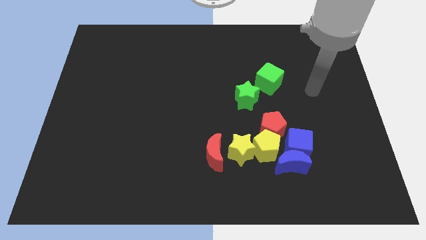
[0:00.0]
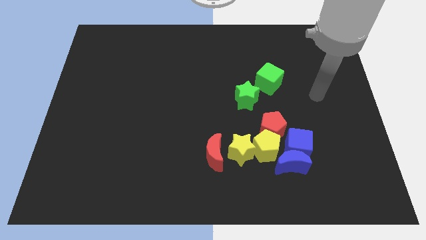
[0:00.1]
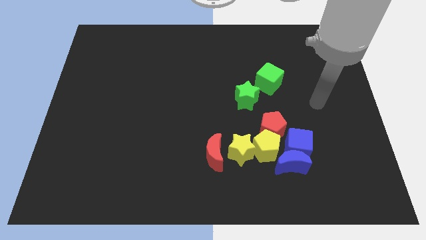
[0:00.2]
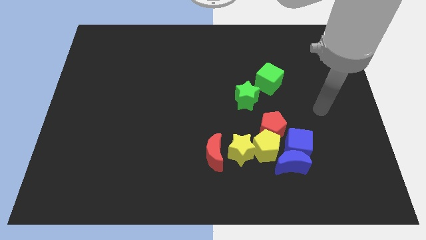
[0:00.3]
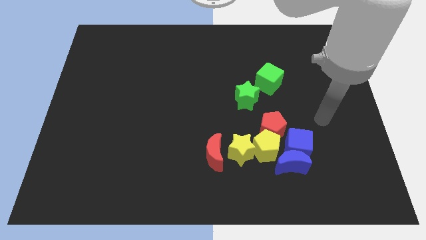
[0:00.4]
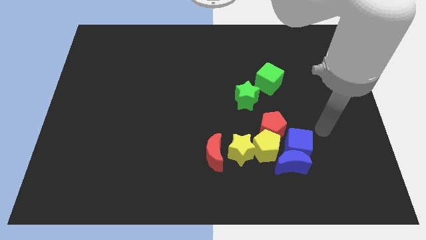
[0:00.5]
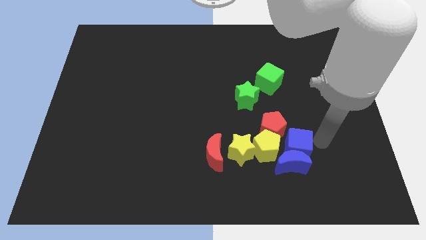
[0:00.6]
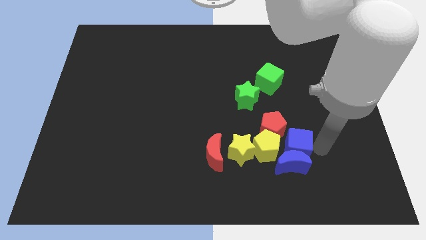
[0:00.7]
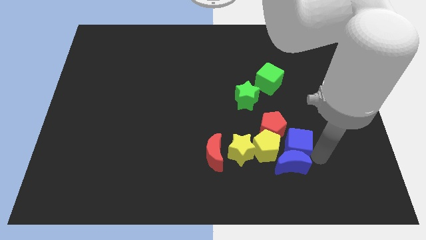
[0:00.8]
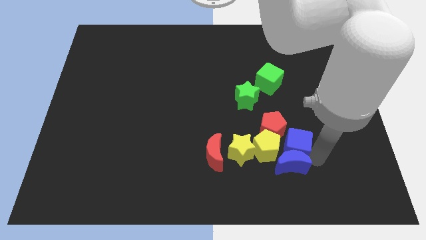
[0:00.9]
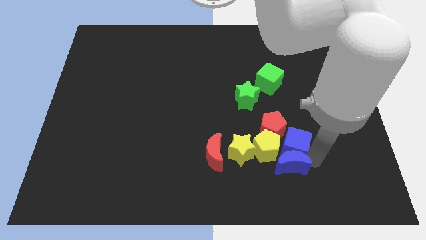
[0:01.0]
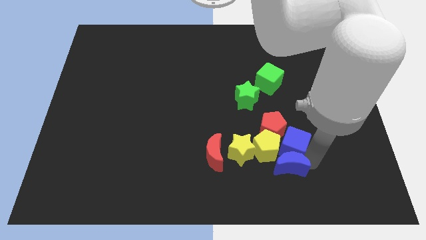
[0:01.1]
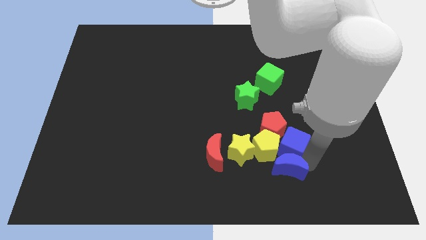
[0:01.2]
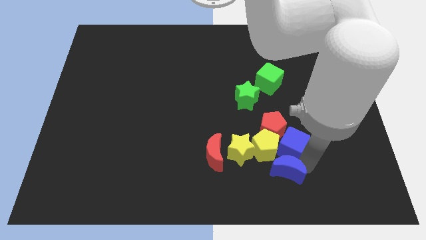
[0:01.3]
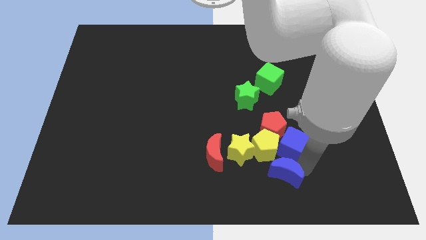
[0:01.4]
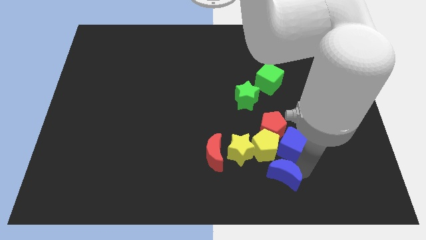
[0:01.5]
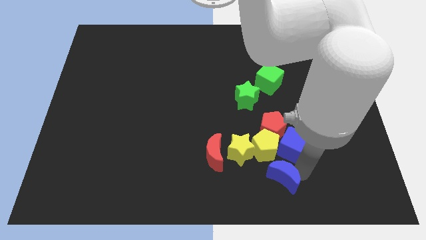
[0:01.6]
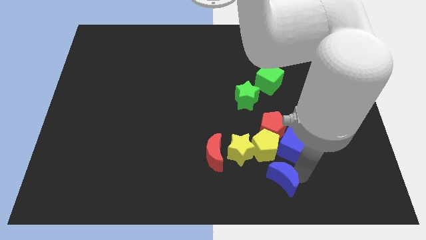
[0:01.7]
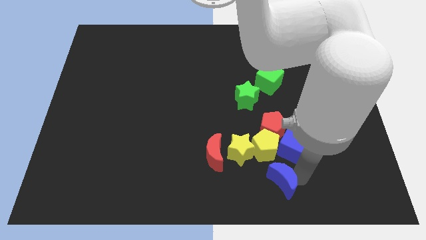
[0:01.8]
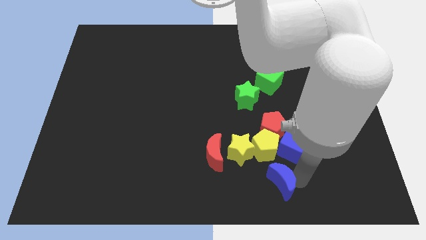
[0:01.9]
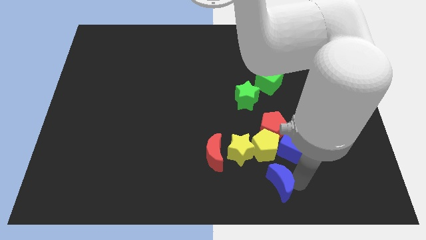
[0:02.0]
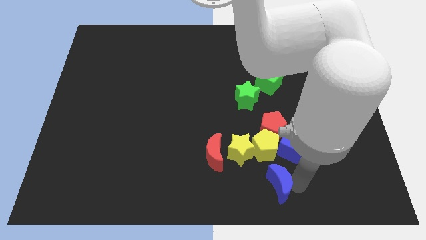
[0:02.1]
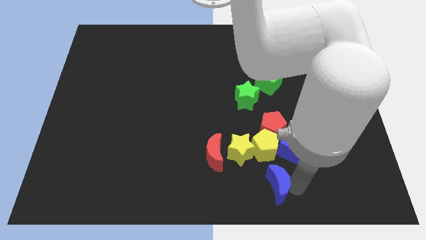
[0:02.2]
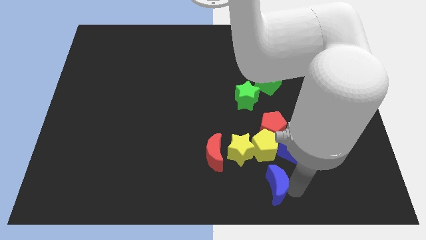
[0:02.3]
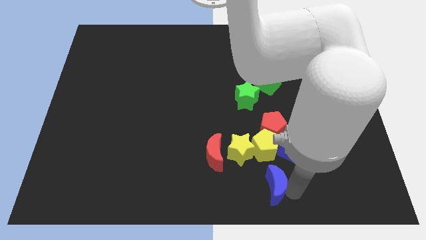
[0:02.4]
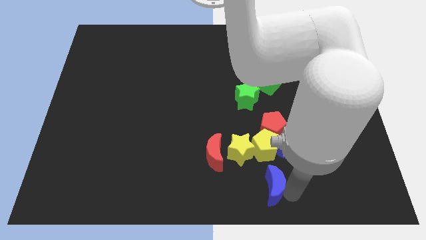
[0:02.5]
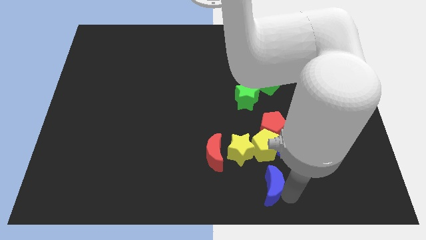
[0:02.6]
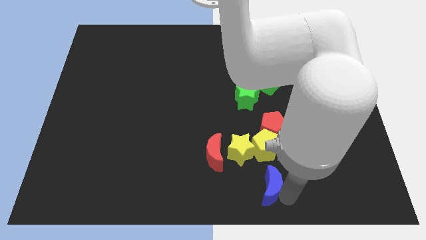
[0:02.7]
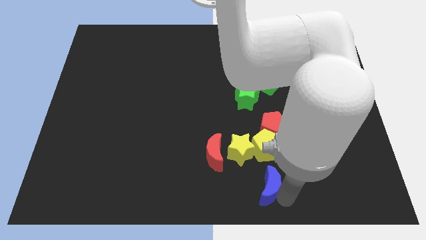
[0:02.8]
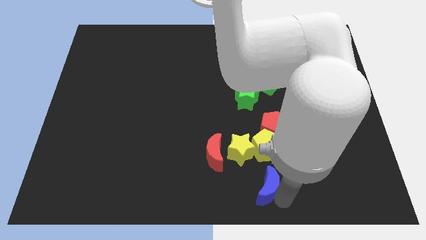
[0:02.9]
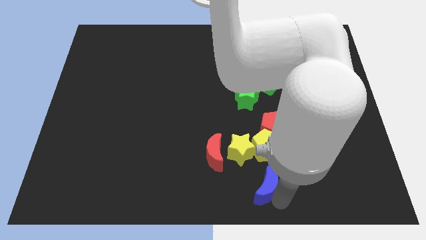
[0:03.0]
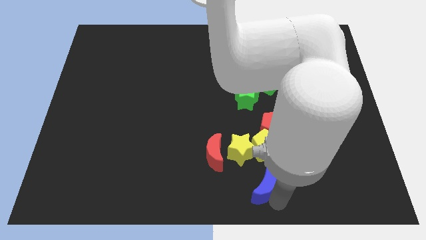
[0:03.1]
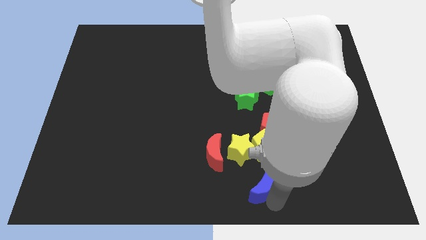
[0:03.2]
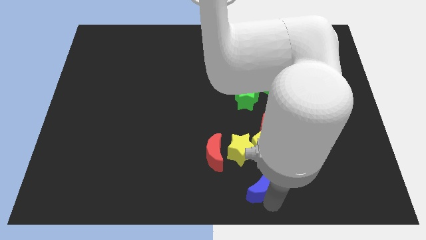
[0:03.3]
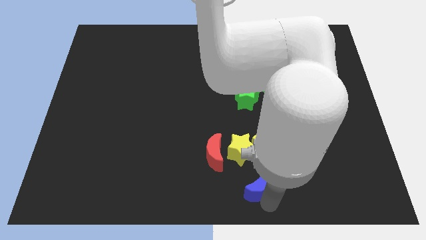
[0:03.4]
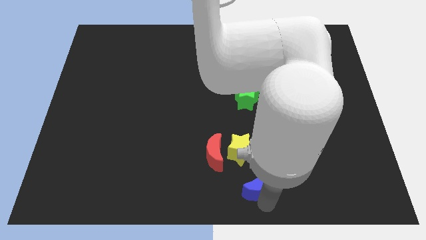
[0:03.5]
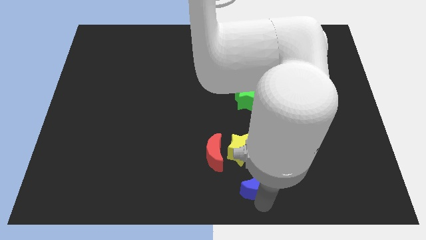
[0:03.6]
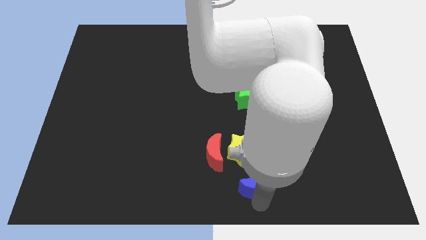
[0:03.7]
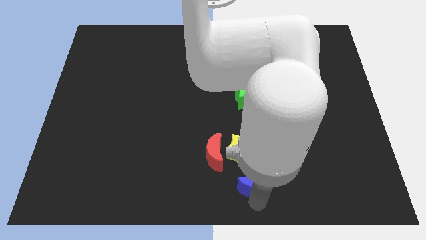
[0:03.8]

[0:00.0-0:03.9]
push the blue moon slightly left

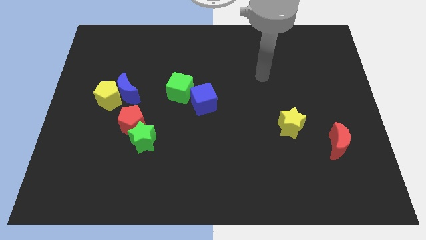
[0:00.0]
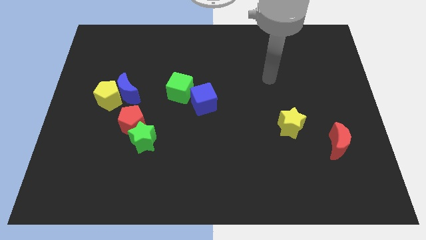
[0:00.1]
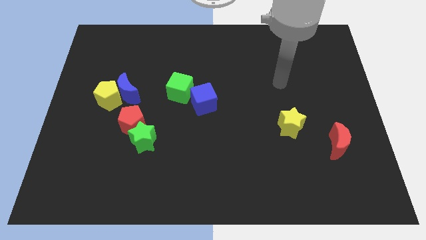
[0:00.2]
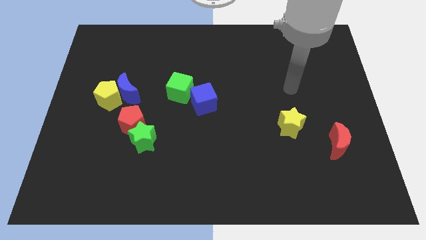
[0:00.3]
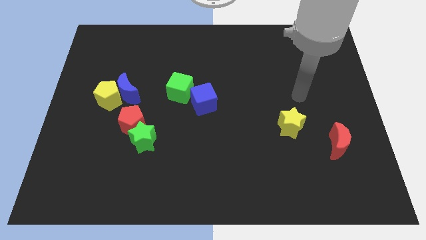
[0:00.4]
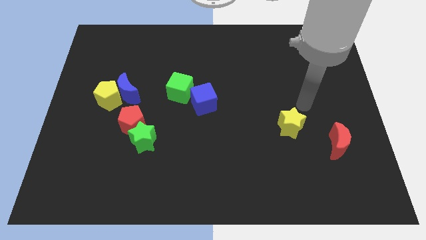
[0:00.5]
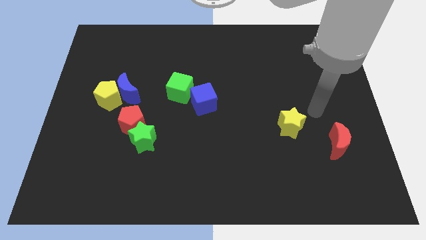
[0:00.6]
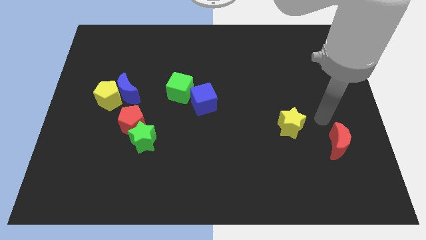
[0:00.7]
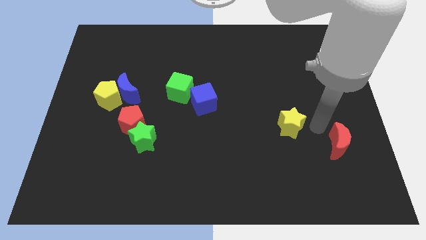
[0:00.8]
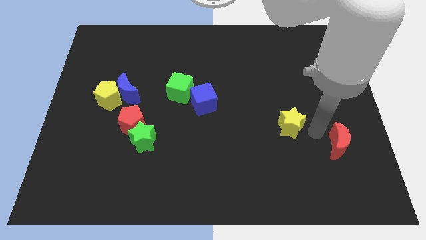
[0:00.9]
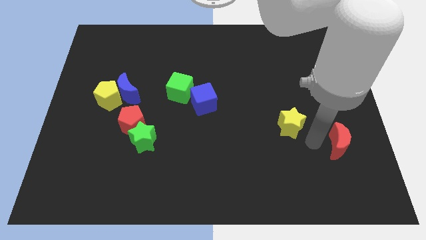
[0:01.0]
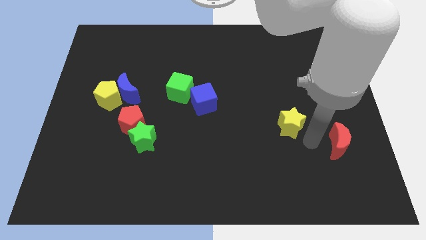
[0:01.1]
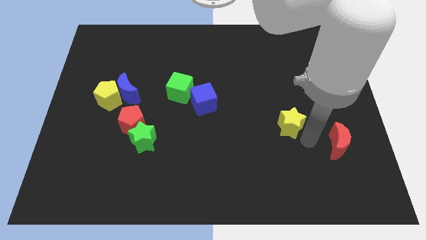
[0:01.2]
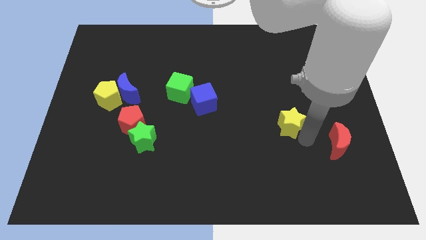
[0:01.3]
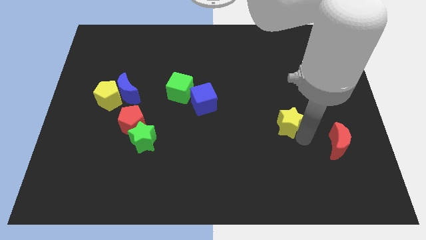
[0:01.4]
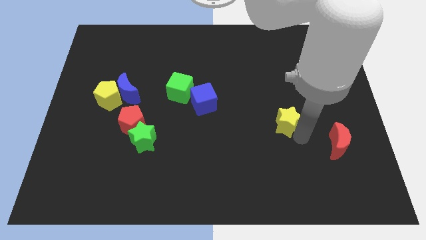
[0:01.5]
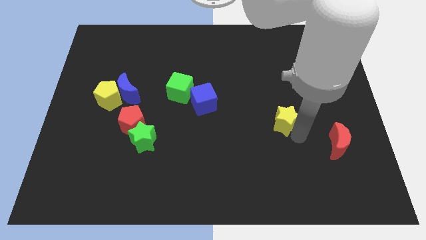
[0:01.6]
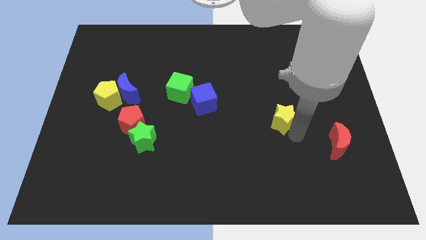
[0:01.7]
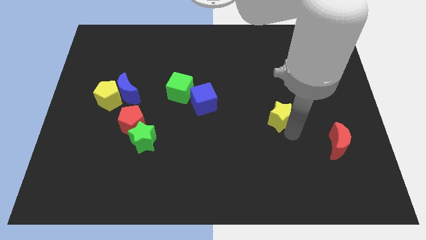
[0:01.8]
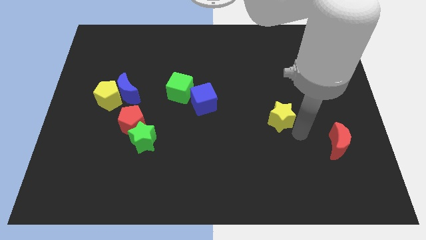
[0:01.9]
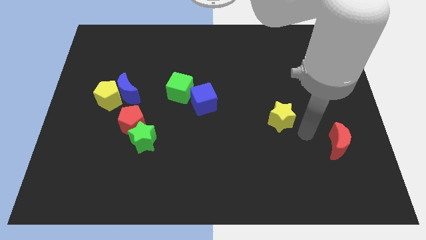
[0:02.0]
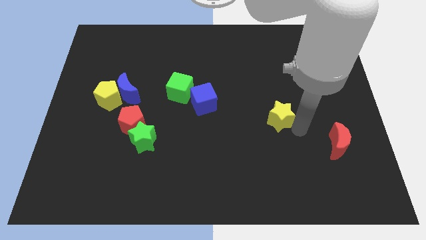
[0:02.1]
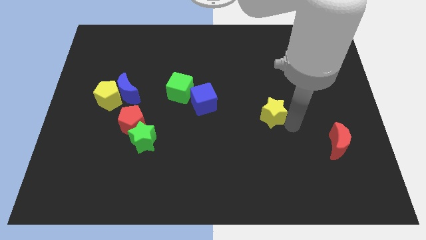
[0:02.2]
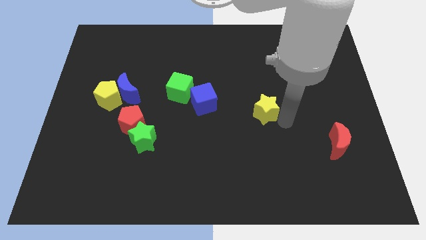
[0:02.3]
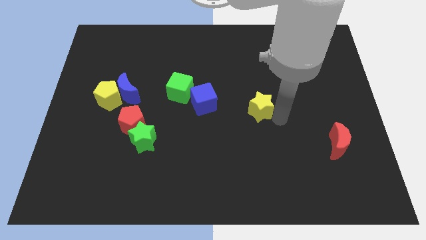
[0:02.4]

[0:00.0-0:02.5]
move the yellow star upwards and then to the left a little bit

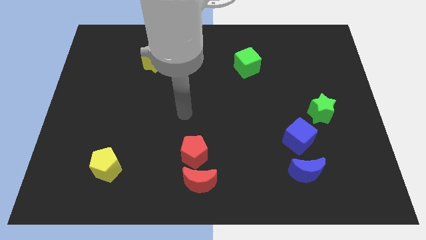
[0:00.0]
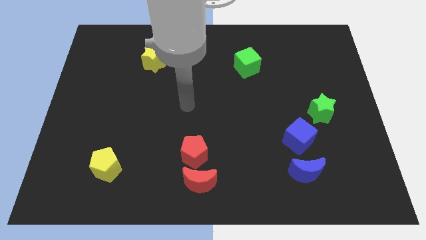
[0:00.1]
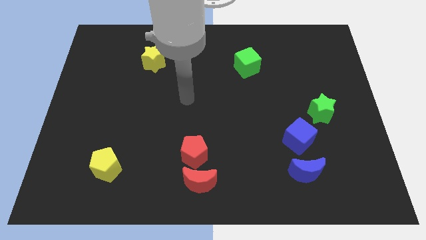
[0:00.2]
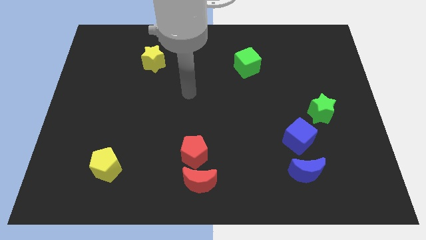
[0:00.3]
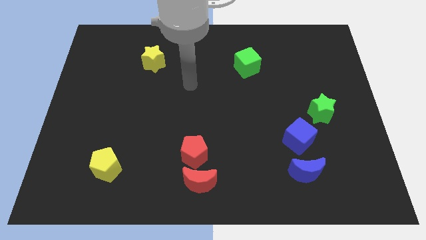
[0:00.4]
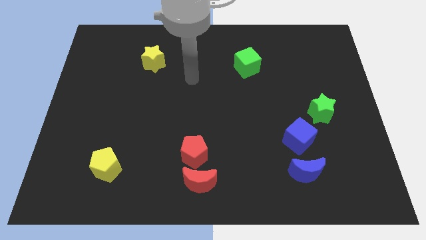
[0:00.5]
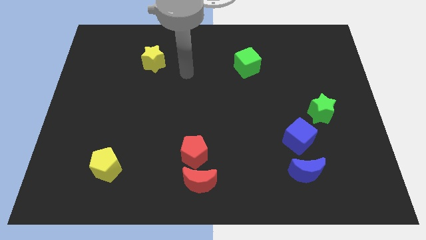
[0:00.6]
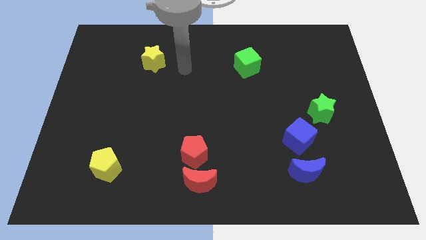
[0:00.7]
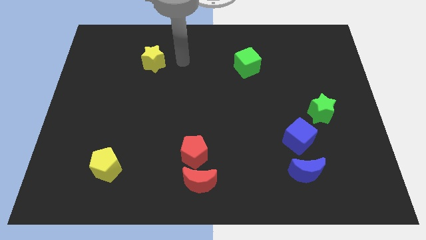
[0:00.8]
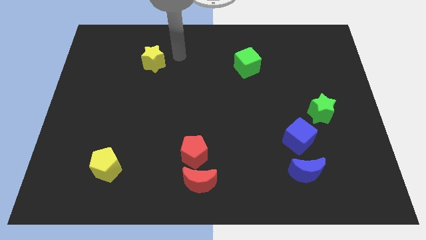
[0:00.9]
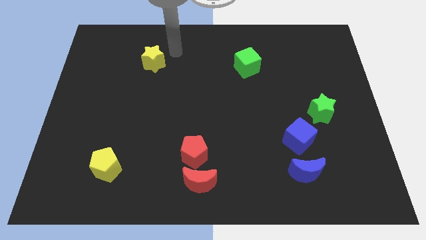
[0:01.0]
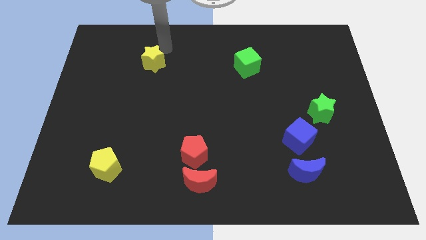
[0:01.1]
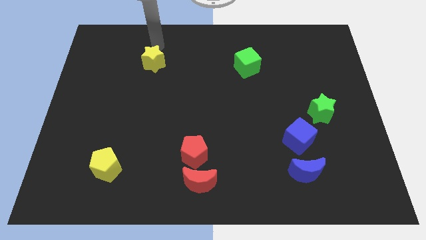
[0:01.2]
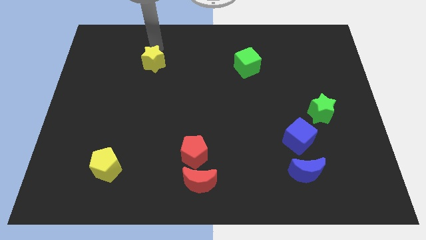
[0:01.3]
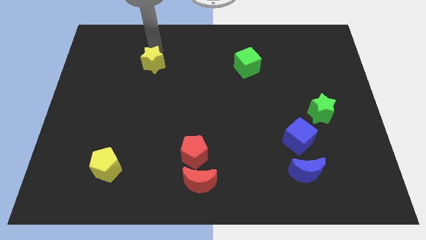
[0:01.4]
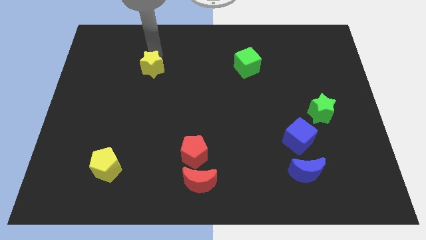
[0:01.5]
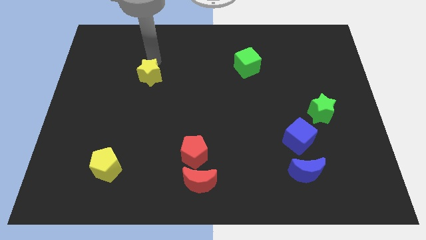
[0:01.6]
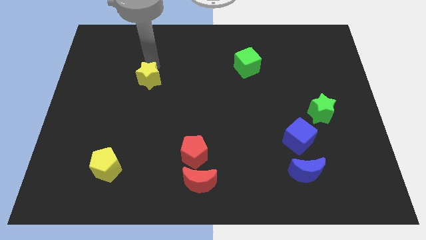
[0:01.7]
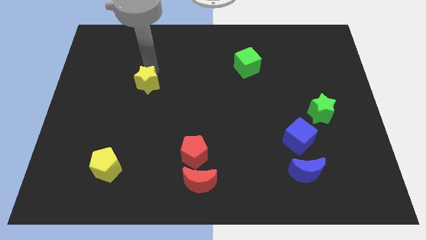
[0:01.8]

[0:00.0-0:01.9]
slightly slide the yellow star down
